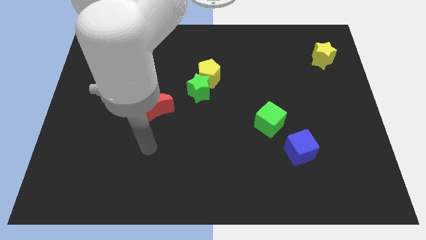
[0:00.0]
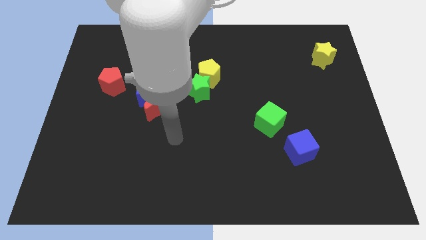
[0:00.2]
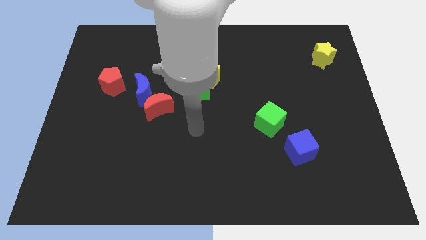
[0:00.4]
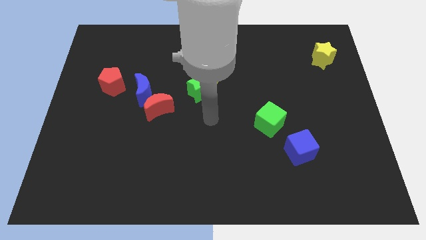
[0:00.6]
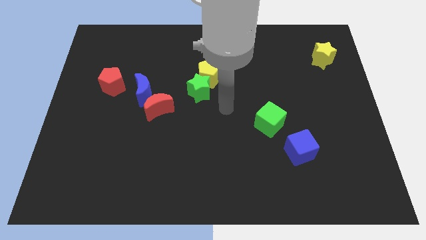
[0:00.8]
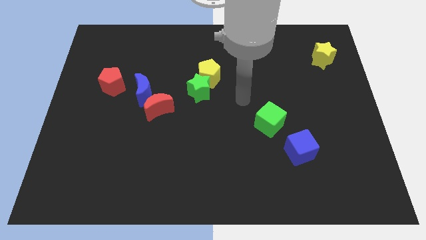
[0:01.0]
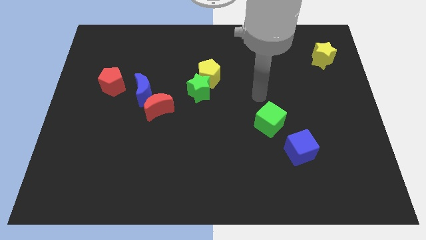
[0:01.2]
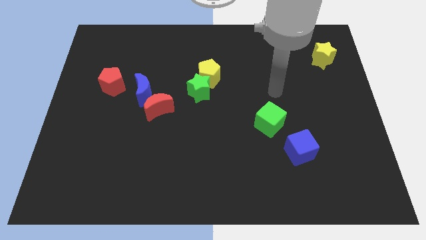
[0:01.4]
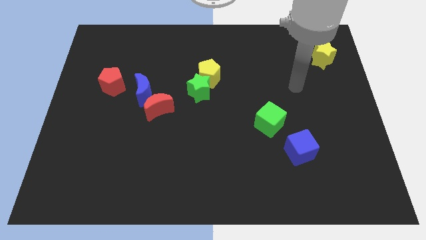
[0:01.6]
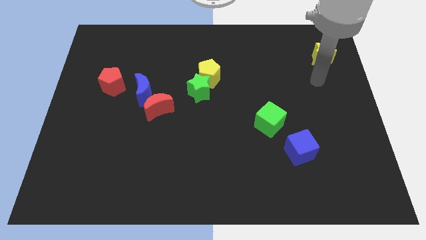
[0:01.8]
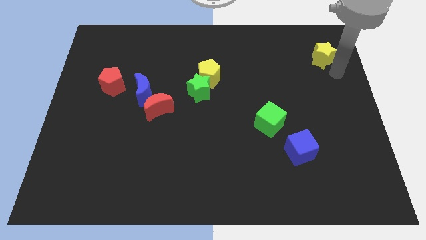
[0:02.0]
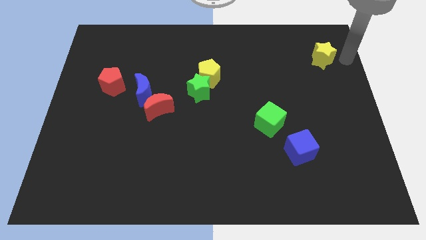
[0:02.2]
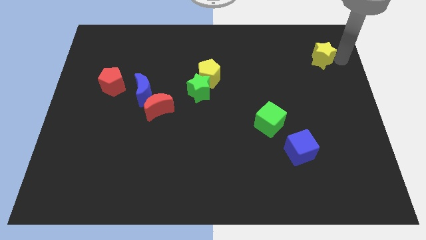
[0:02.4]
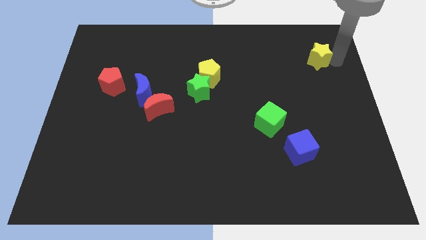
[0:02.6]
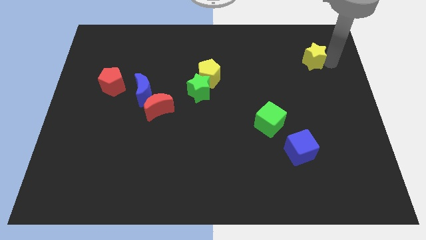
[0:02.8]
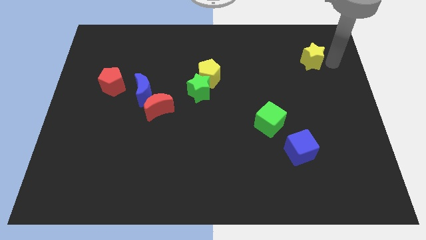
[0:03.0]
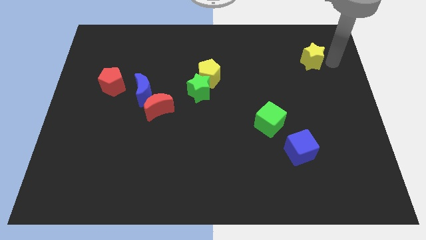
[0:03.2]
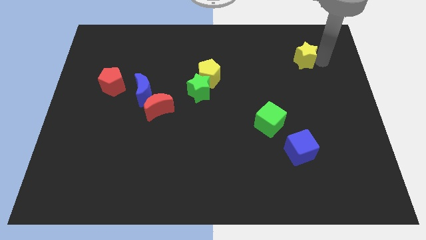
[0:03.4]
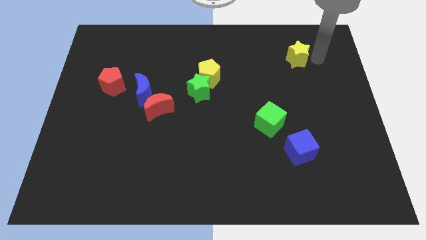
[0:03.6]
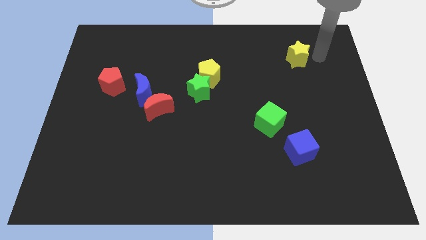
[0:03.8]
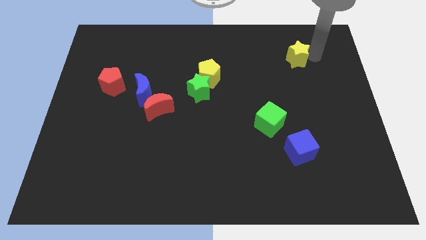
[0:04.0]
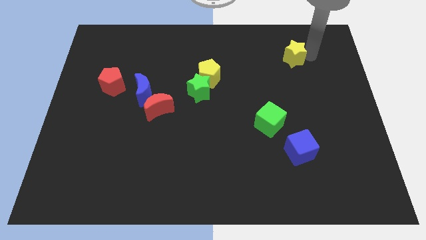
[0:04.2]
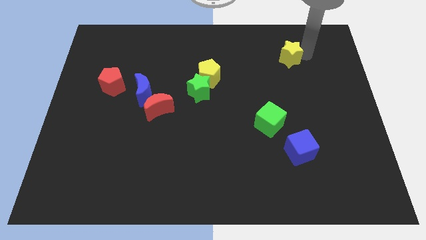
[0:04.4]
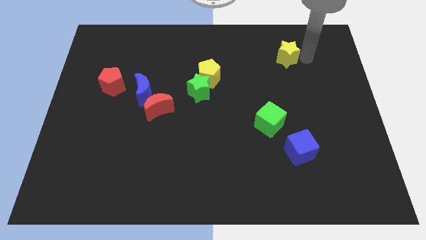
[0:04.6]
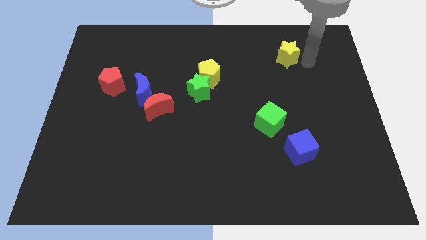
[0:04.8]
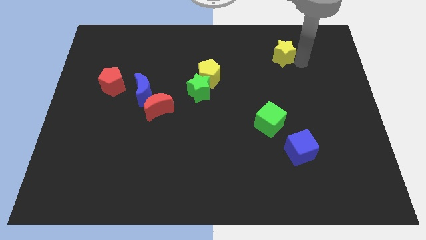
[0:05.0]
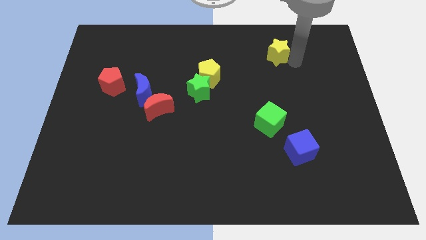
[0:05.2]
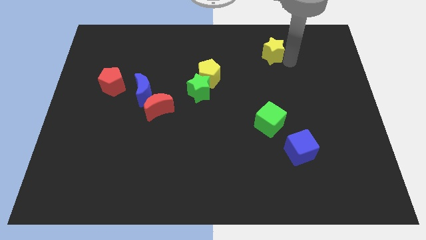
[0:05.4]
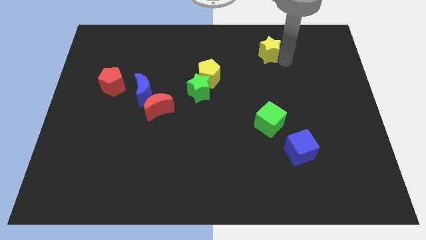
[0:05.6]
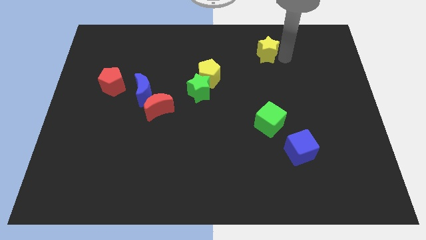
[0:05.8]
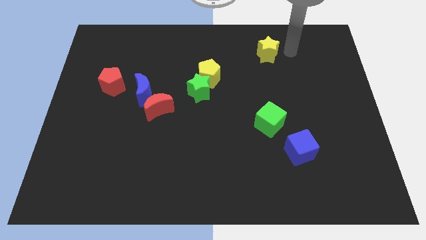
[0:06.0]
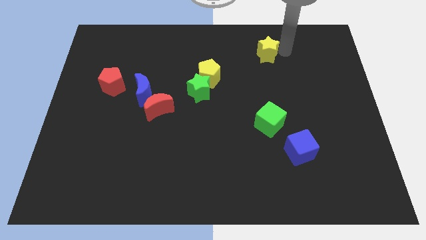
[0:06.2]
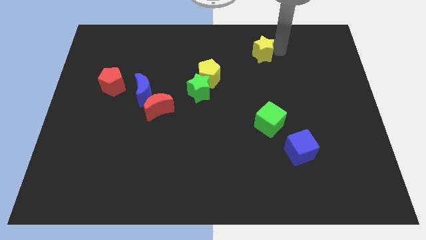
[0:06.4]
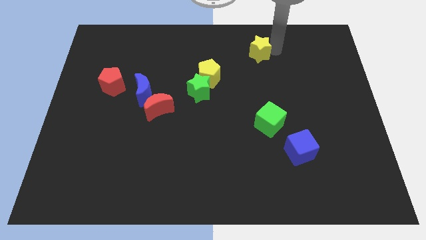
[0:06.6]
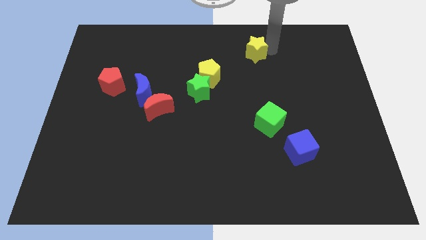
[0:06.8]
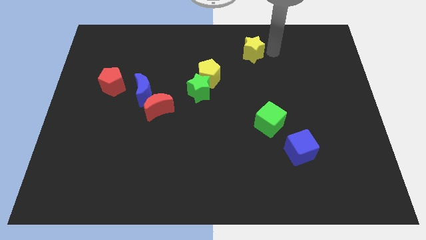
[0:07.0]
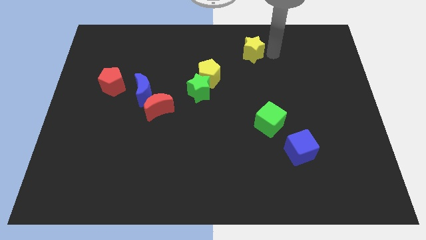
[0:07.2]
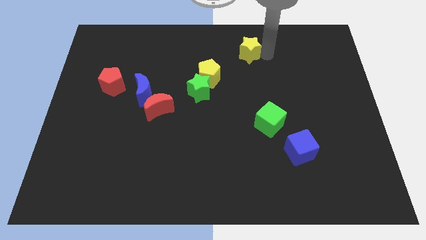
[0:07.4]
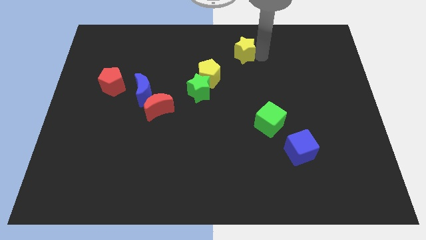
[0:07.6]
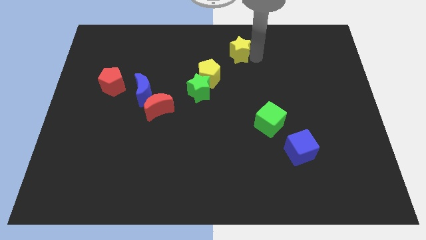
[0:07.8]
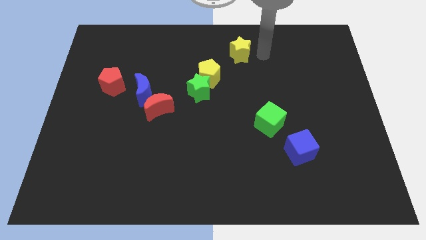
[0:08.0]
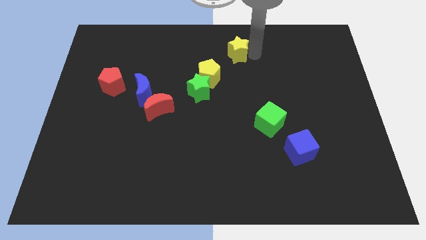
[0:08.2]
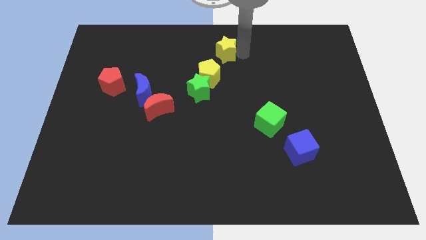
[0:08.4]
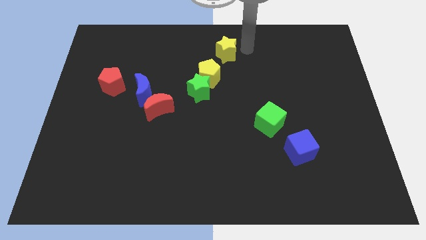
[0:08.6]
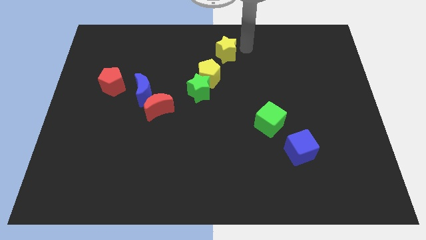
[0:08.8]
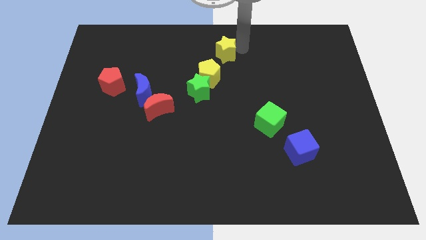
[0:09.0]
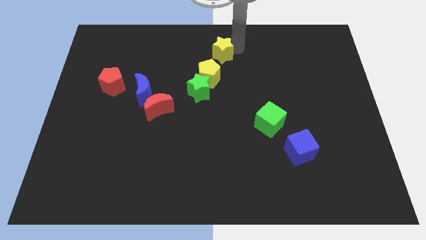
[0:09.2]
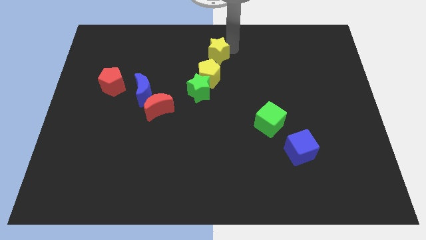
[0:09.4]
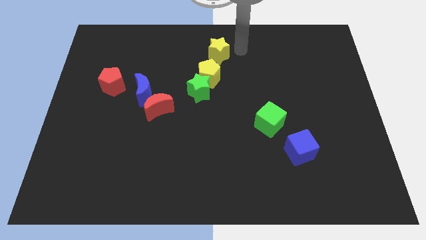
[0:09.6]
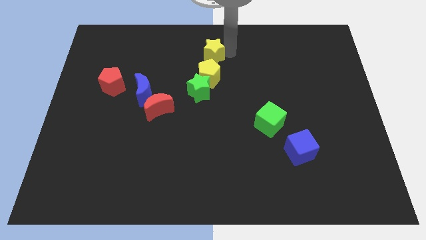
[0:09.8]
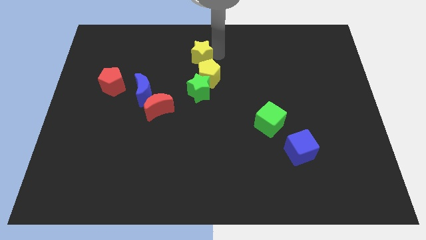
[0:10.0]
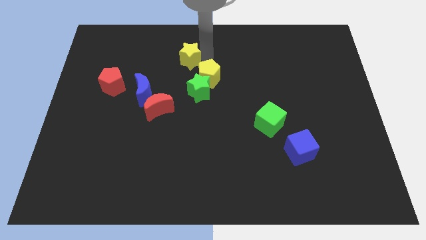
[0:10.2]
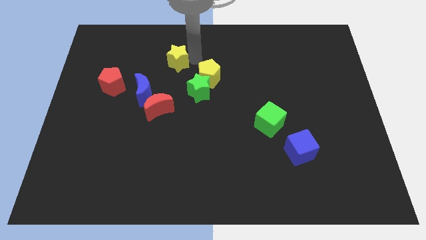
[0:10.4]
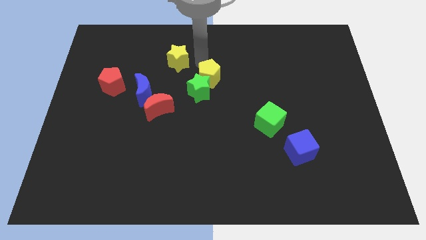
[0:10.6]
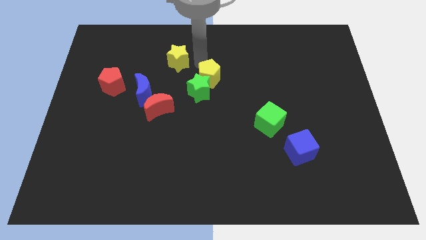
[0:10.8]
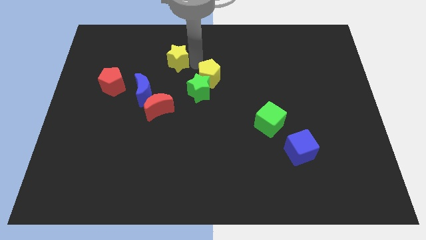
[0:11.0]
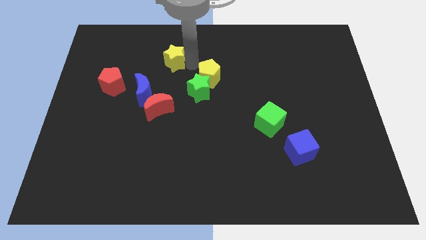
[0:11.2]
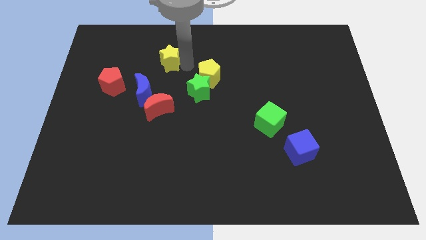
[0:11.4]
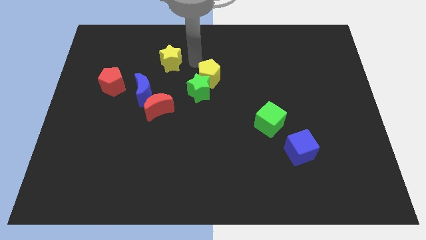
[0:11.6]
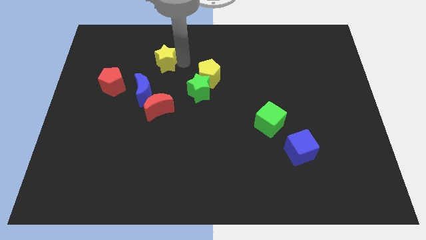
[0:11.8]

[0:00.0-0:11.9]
push the yellow star to the top side of the blue moon

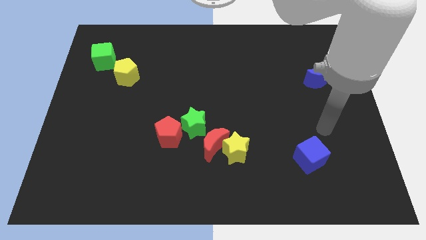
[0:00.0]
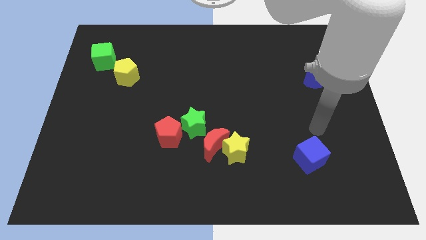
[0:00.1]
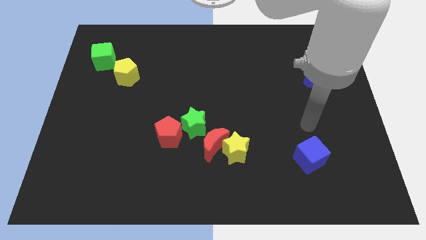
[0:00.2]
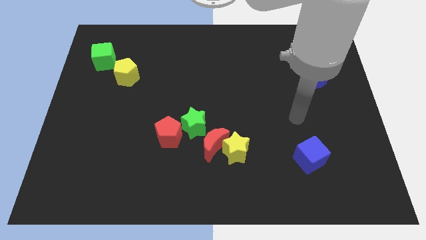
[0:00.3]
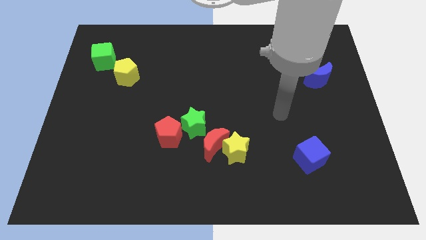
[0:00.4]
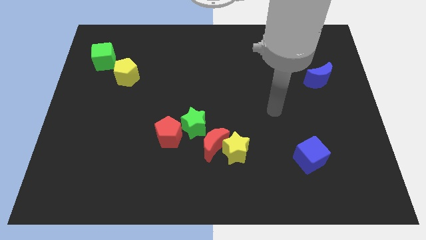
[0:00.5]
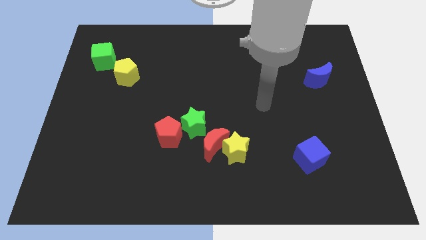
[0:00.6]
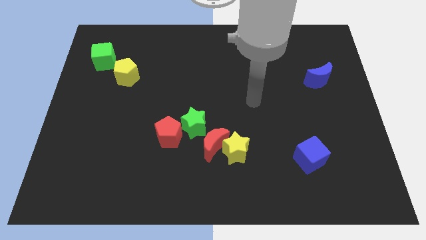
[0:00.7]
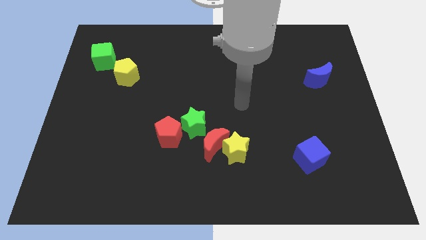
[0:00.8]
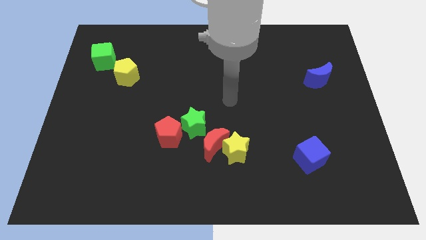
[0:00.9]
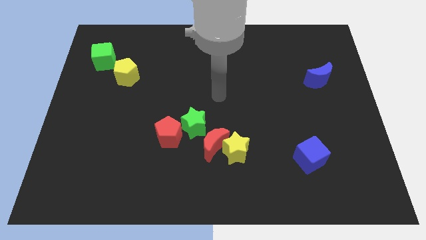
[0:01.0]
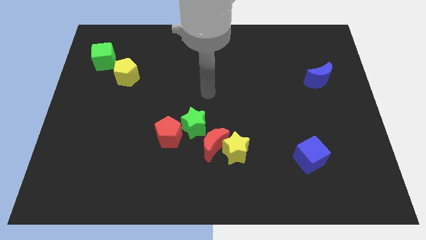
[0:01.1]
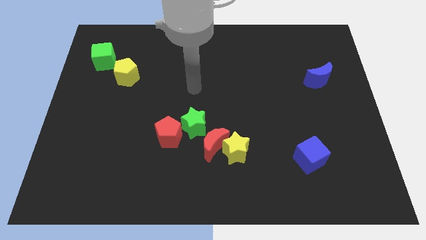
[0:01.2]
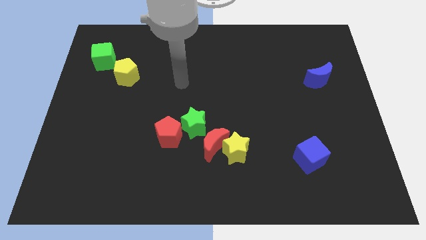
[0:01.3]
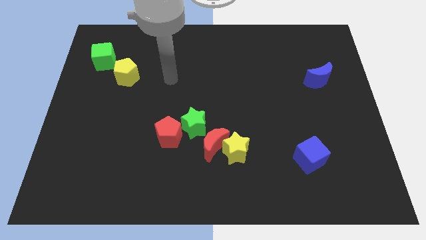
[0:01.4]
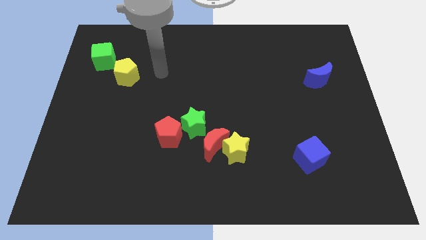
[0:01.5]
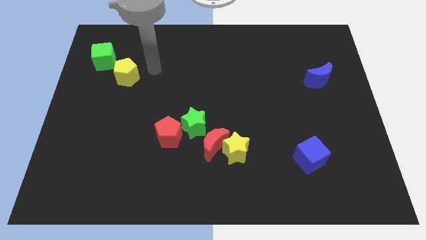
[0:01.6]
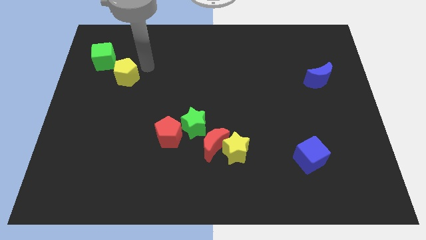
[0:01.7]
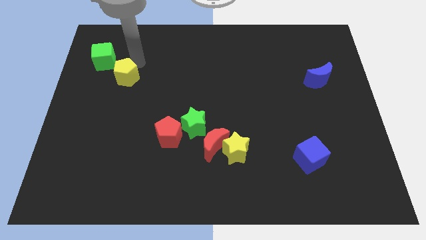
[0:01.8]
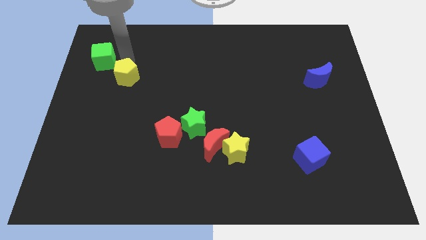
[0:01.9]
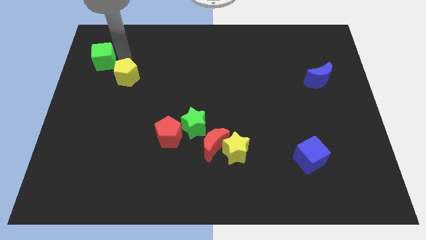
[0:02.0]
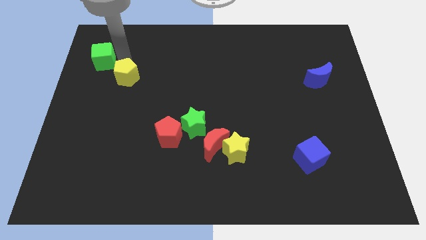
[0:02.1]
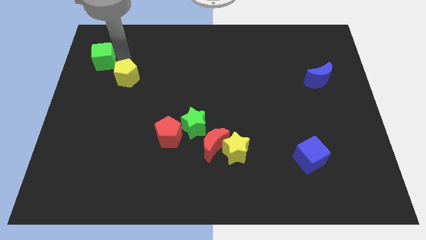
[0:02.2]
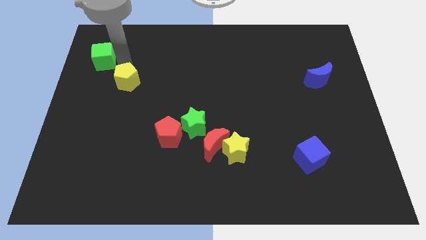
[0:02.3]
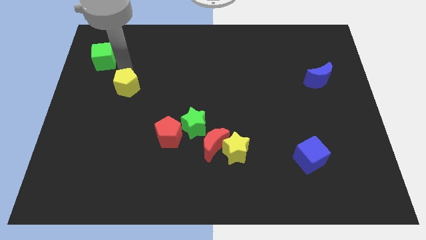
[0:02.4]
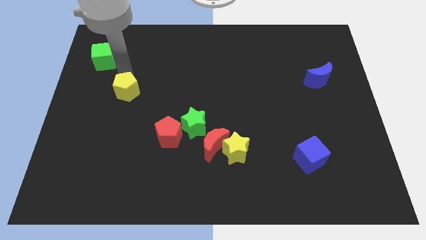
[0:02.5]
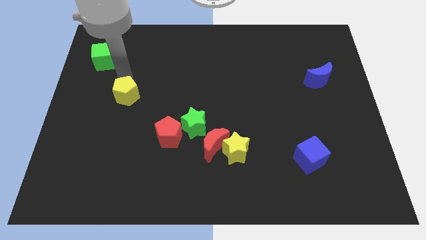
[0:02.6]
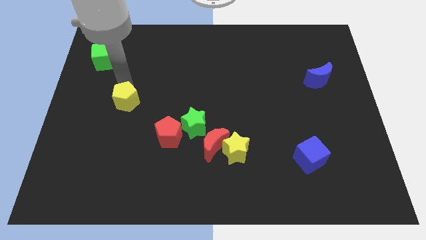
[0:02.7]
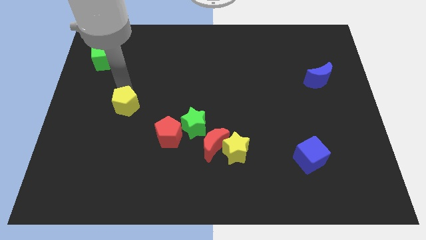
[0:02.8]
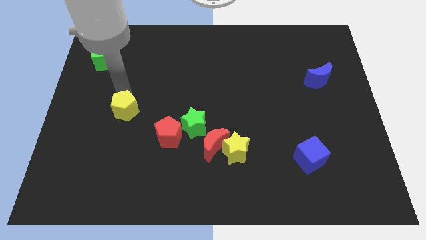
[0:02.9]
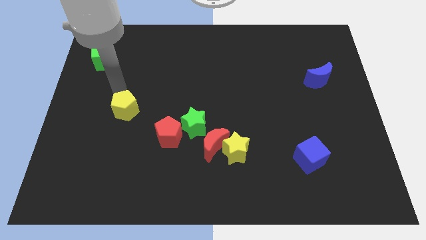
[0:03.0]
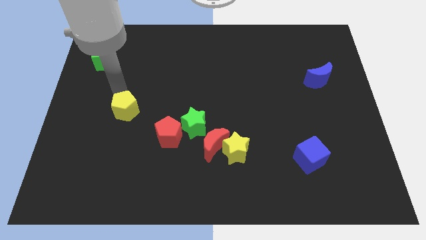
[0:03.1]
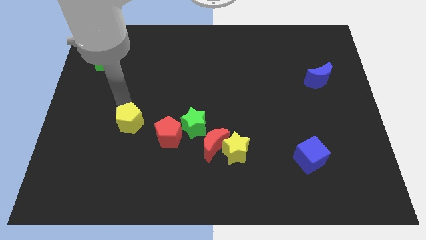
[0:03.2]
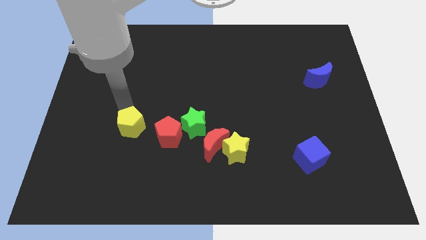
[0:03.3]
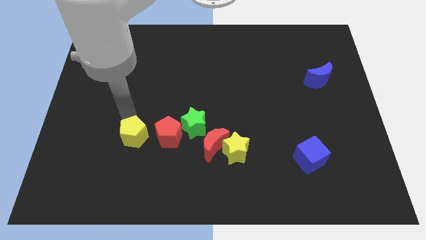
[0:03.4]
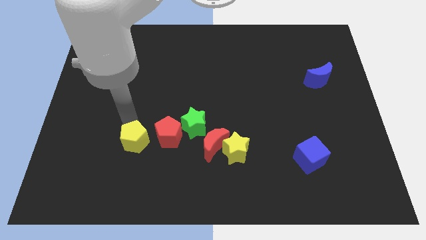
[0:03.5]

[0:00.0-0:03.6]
move the yellow pentagon diagonally down and to the left of the red pentagon
